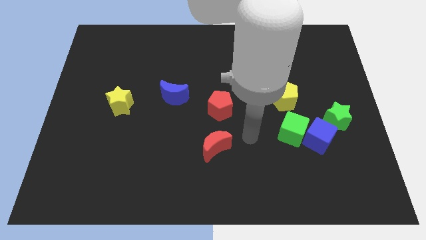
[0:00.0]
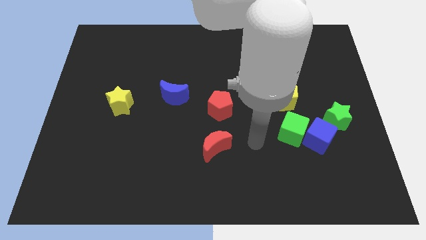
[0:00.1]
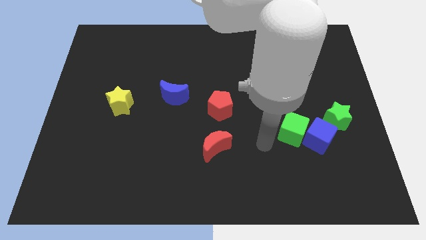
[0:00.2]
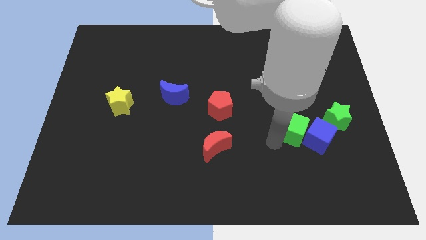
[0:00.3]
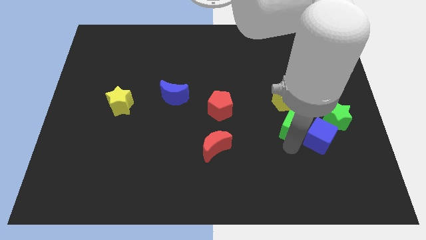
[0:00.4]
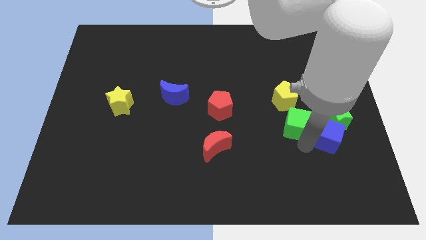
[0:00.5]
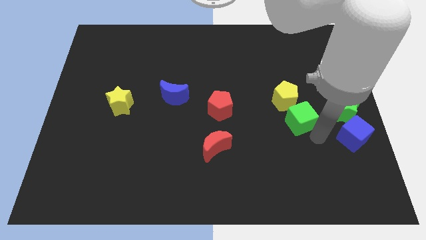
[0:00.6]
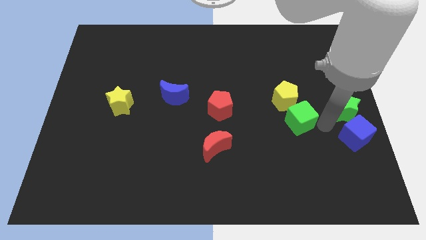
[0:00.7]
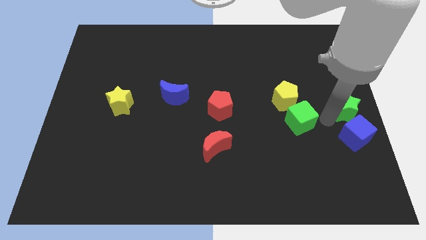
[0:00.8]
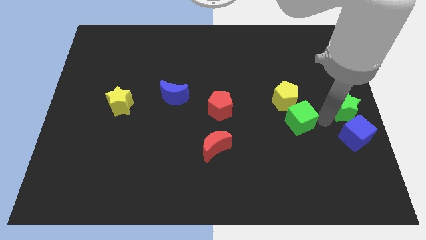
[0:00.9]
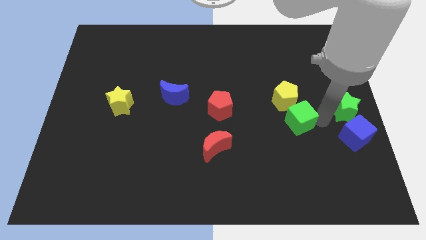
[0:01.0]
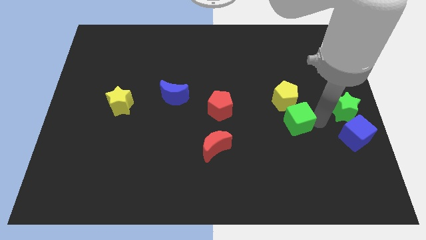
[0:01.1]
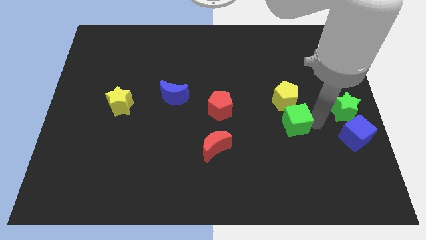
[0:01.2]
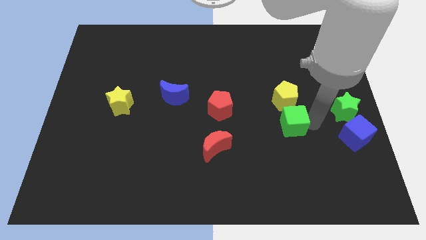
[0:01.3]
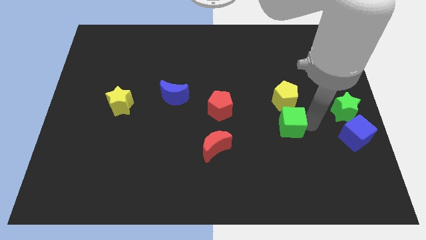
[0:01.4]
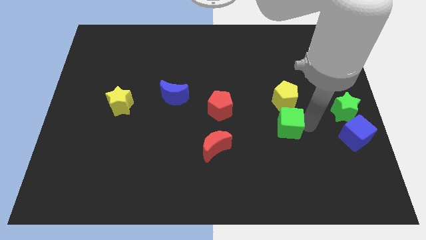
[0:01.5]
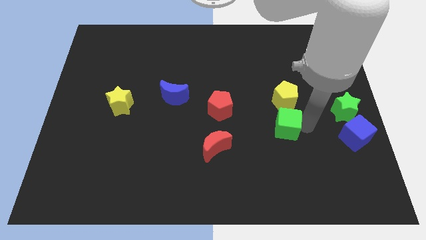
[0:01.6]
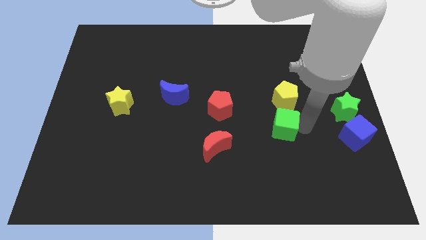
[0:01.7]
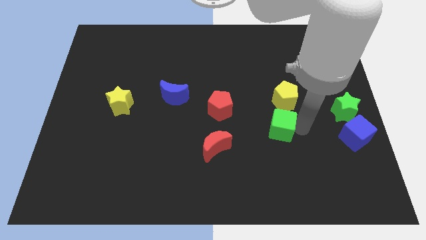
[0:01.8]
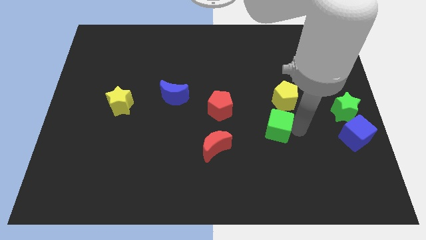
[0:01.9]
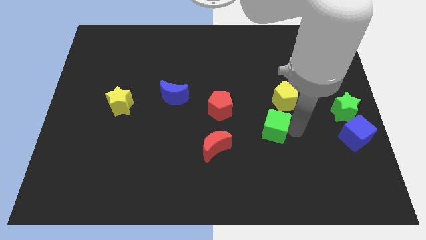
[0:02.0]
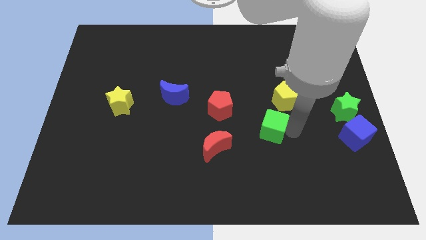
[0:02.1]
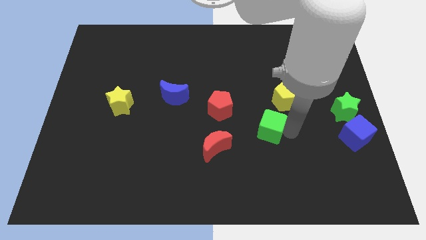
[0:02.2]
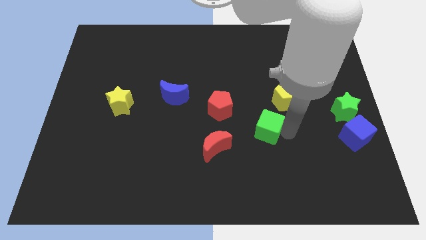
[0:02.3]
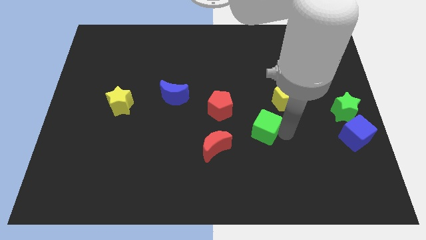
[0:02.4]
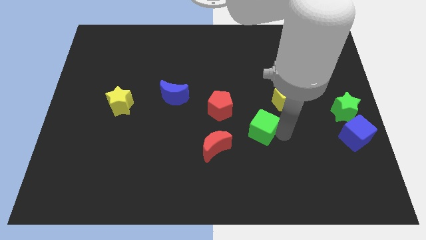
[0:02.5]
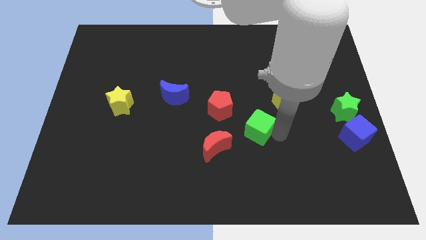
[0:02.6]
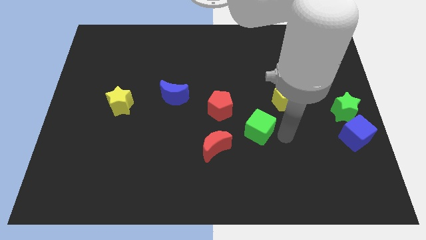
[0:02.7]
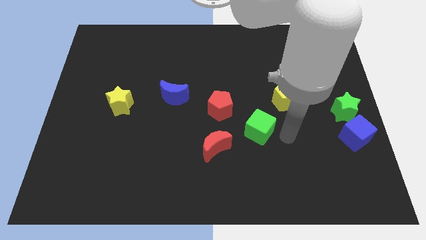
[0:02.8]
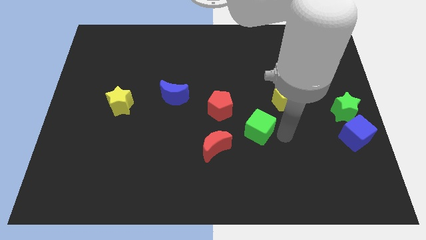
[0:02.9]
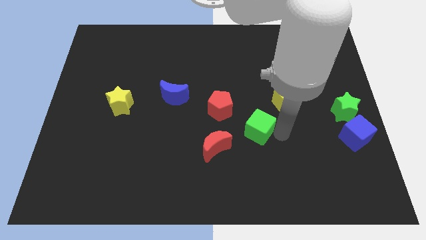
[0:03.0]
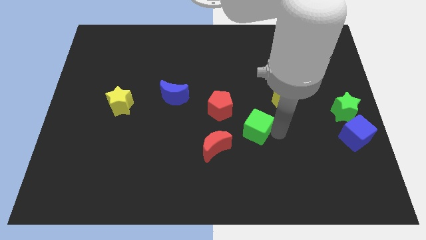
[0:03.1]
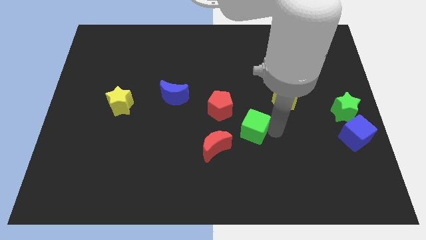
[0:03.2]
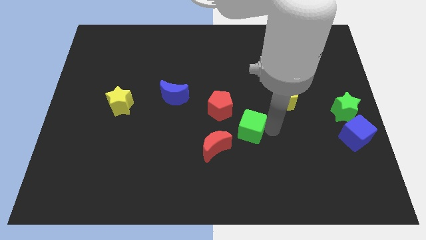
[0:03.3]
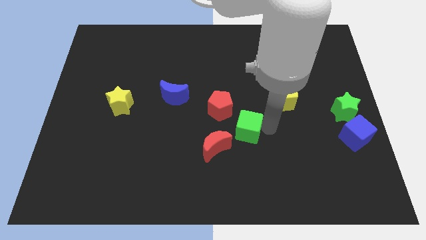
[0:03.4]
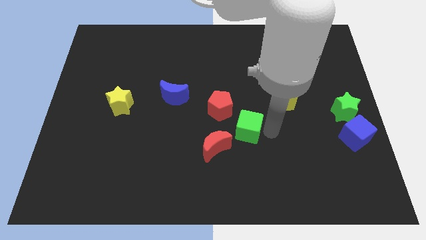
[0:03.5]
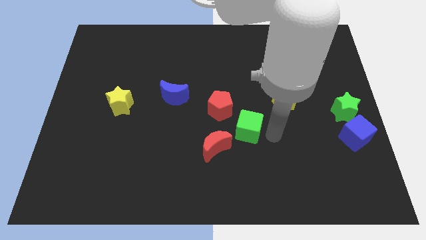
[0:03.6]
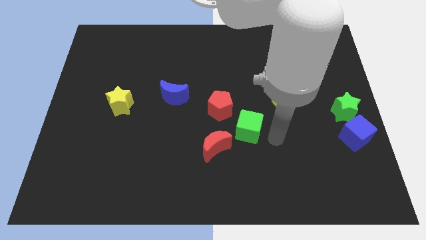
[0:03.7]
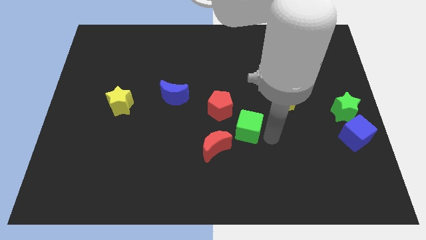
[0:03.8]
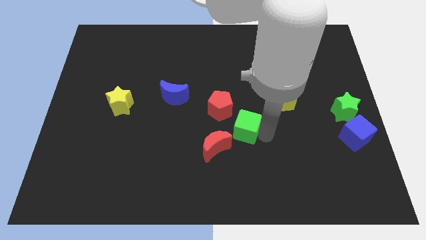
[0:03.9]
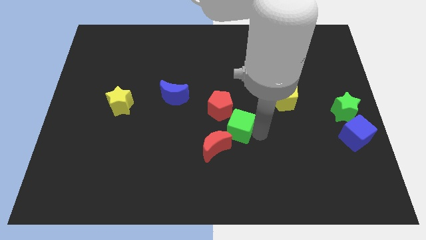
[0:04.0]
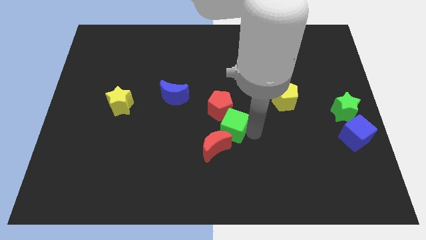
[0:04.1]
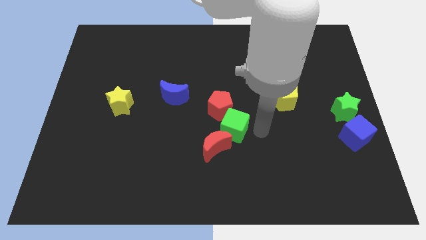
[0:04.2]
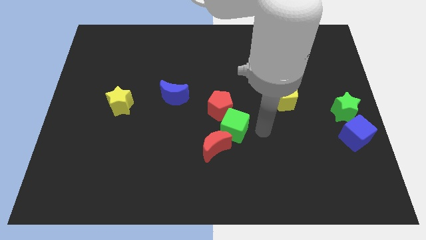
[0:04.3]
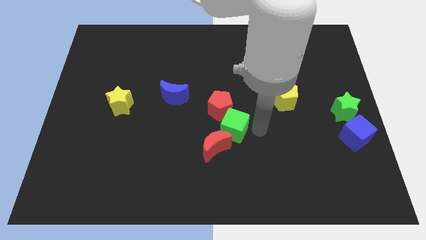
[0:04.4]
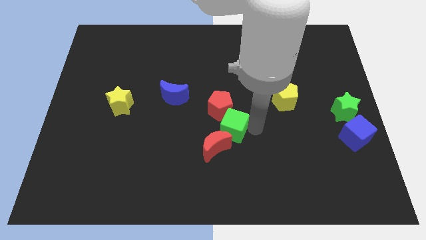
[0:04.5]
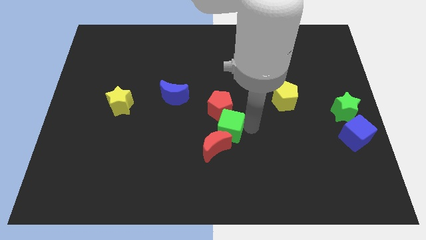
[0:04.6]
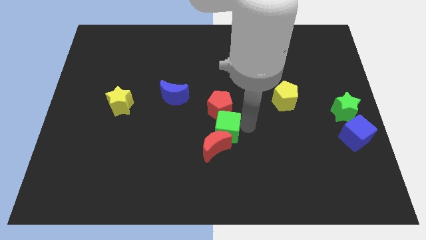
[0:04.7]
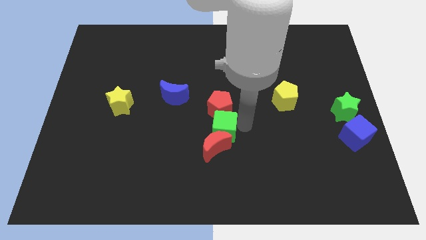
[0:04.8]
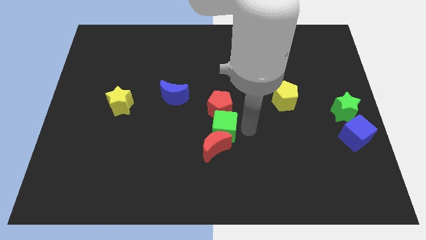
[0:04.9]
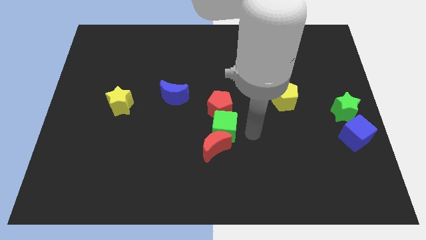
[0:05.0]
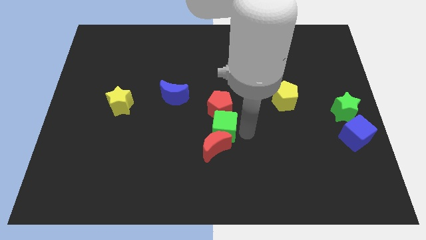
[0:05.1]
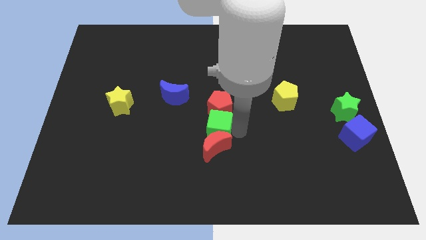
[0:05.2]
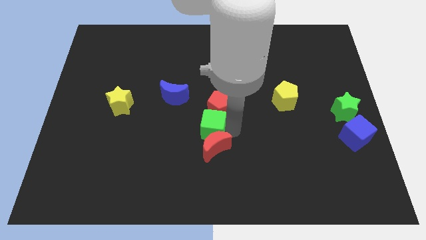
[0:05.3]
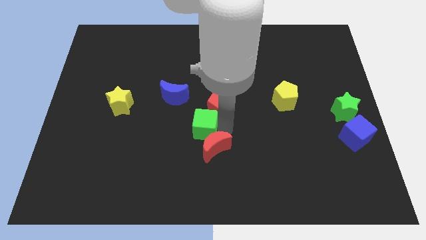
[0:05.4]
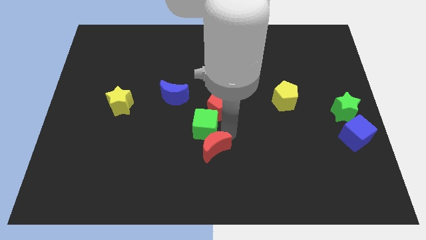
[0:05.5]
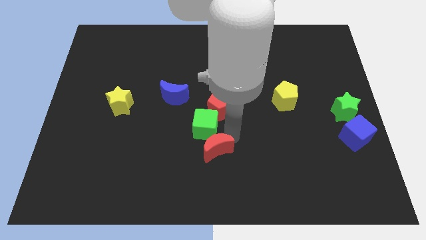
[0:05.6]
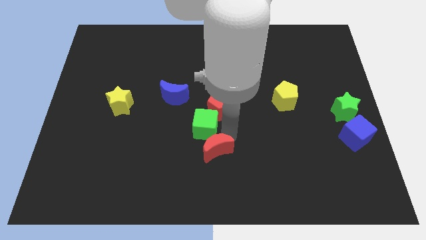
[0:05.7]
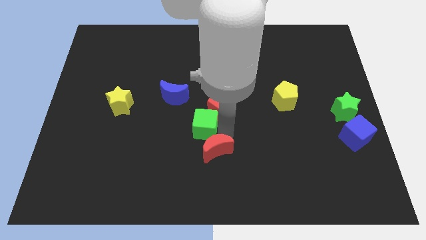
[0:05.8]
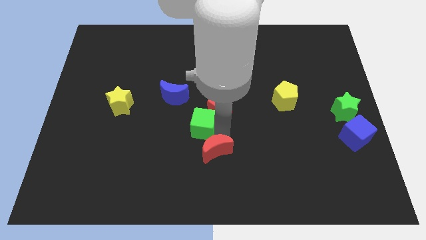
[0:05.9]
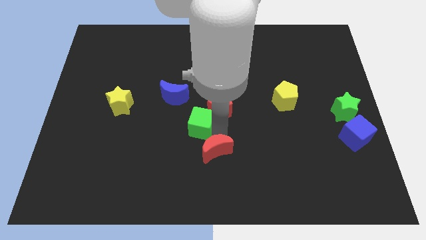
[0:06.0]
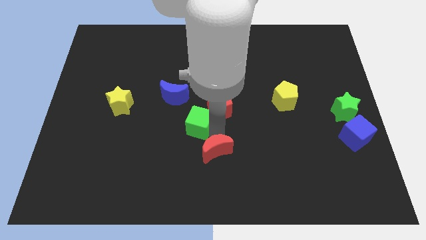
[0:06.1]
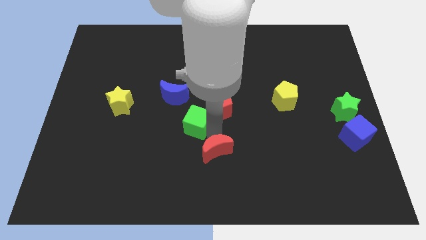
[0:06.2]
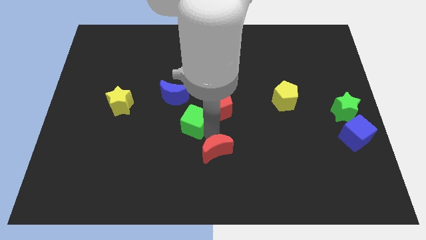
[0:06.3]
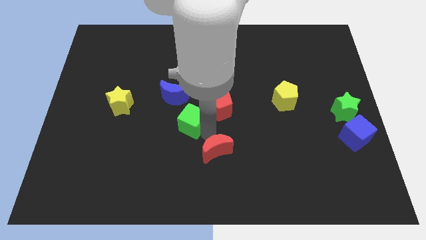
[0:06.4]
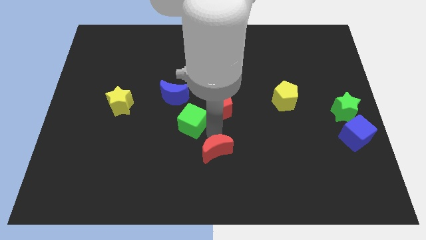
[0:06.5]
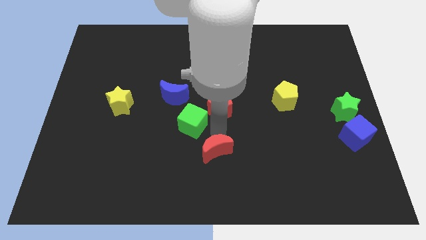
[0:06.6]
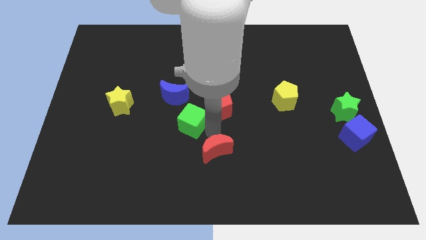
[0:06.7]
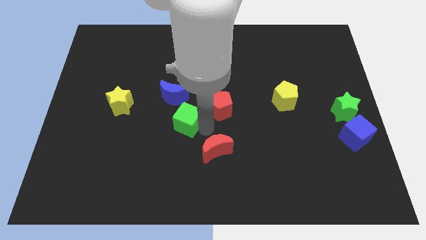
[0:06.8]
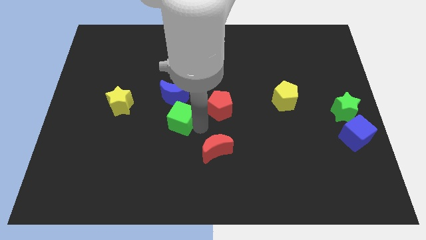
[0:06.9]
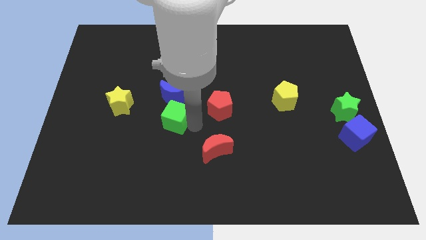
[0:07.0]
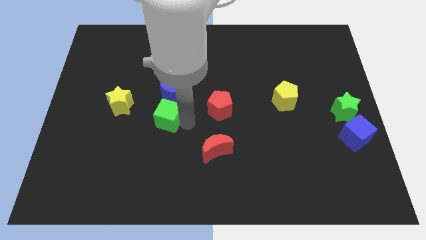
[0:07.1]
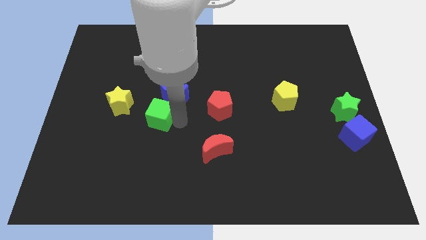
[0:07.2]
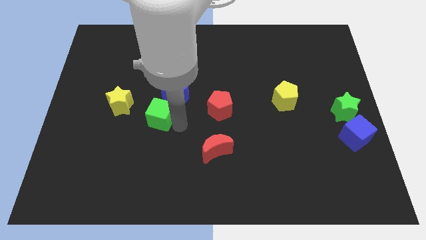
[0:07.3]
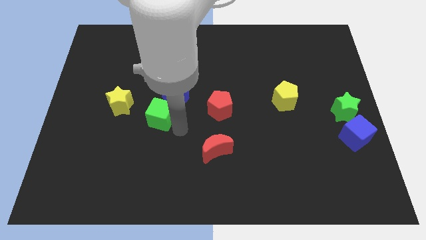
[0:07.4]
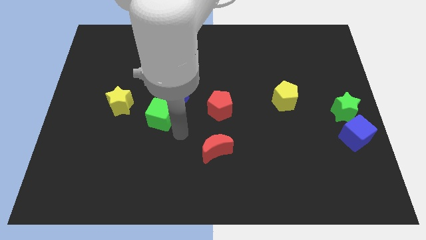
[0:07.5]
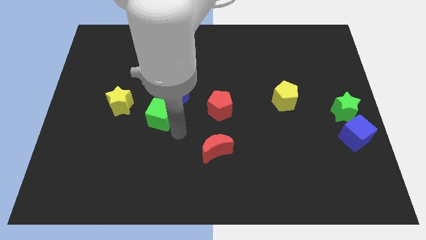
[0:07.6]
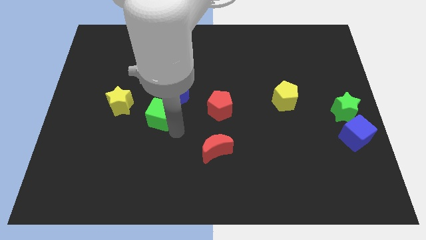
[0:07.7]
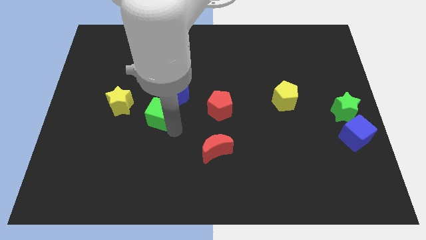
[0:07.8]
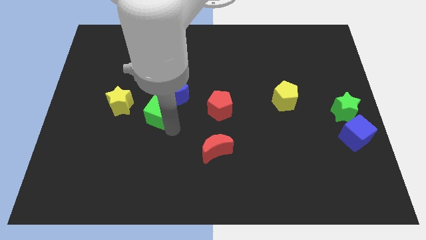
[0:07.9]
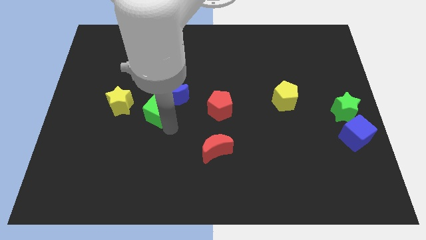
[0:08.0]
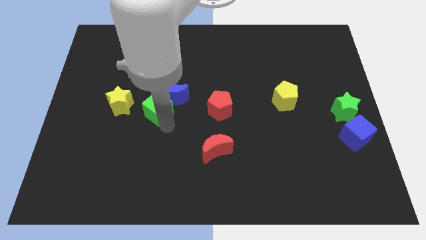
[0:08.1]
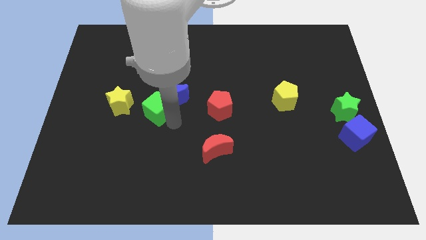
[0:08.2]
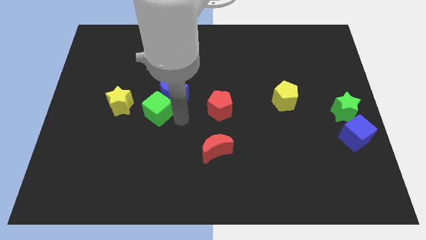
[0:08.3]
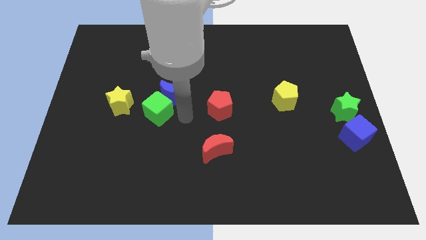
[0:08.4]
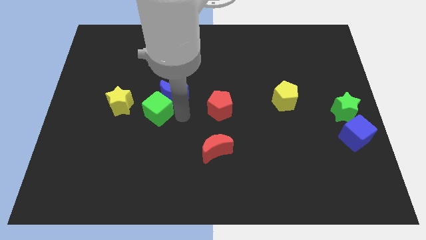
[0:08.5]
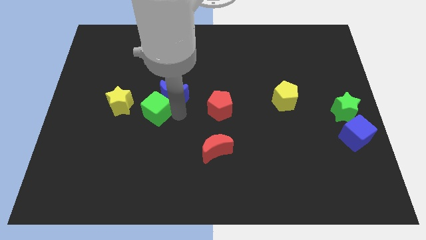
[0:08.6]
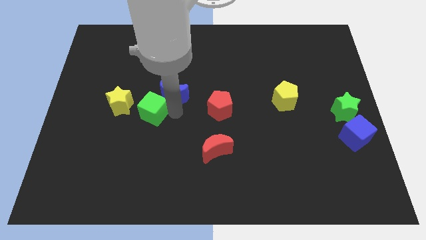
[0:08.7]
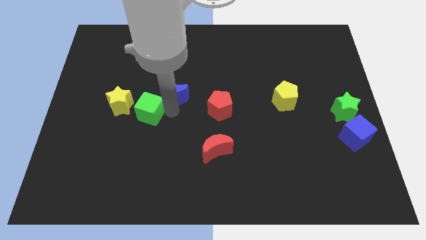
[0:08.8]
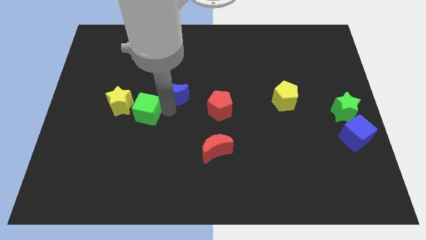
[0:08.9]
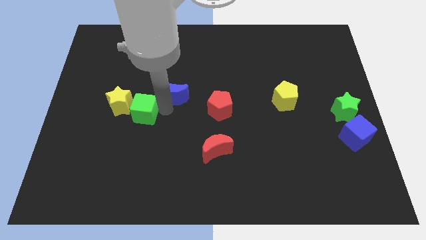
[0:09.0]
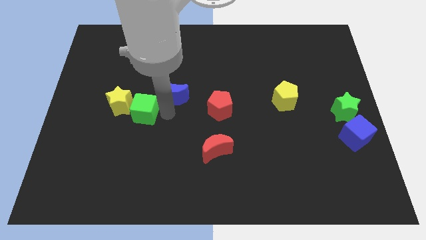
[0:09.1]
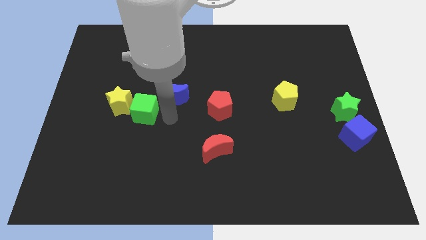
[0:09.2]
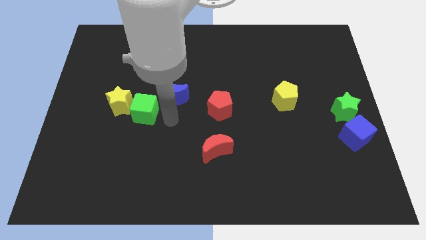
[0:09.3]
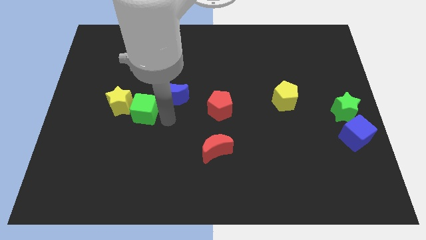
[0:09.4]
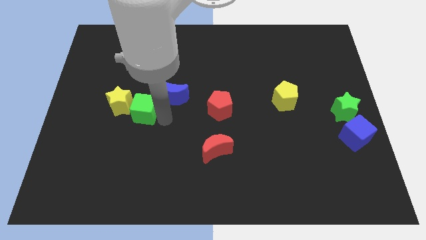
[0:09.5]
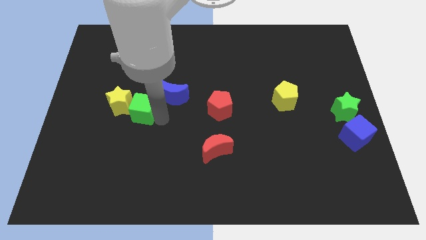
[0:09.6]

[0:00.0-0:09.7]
slide the green cube to the yellow star
